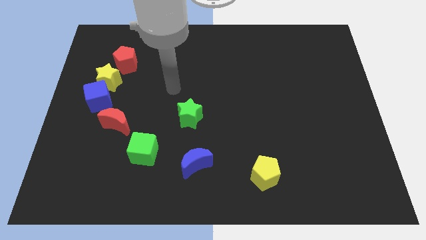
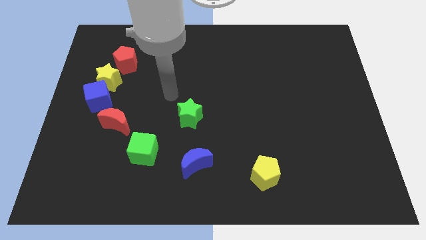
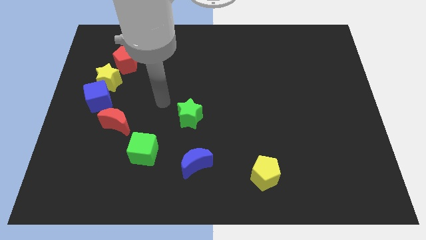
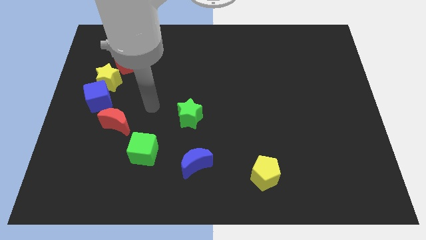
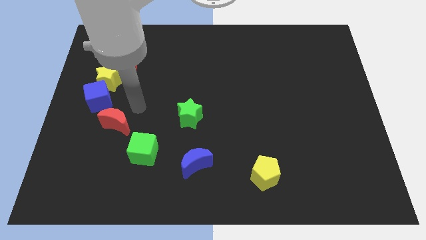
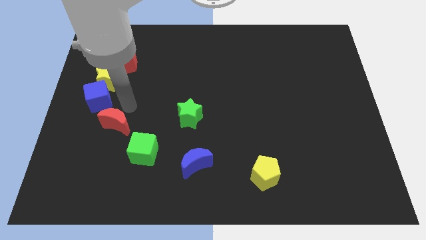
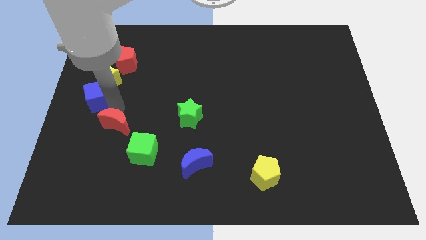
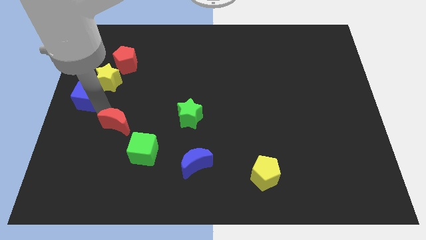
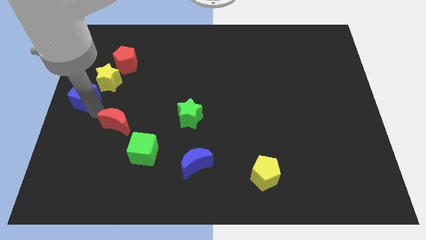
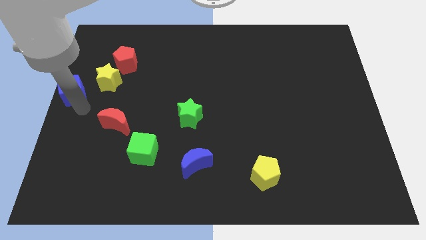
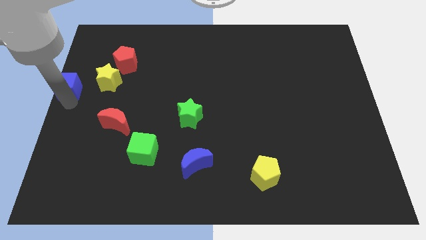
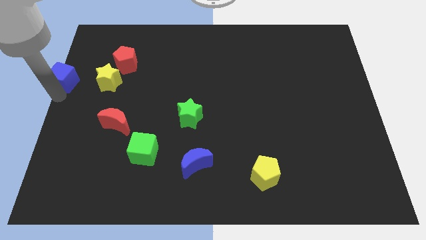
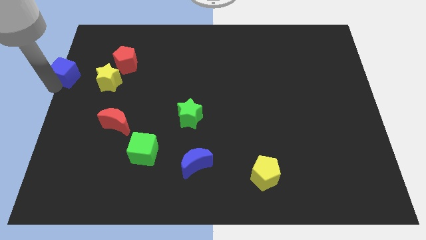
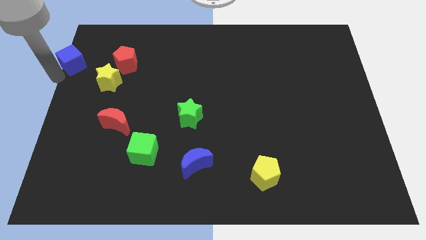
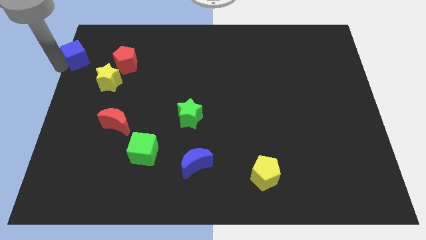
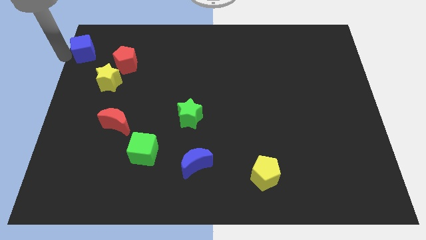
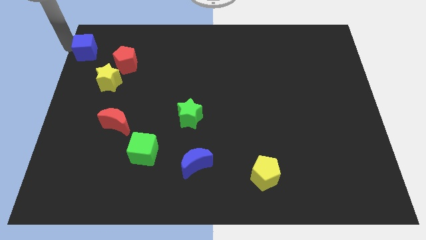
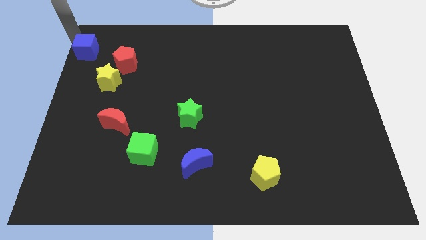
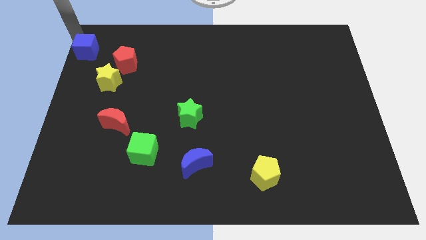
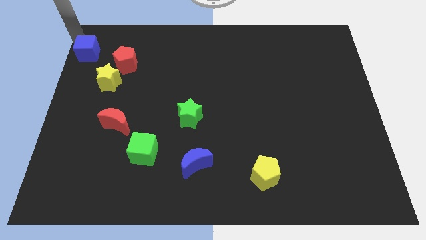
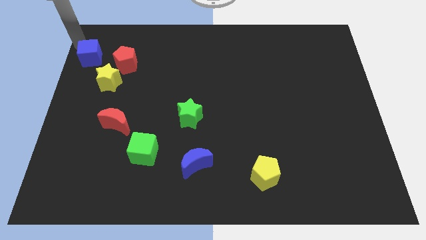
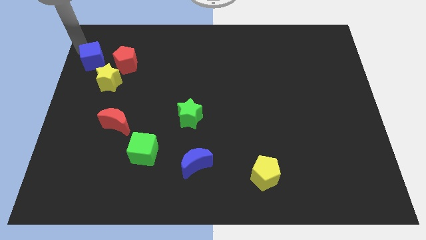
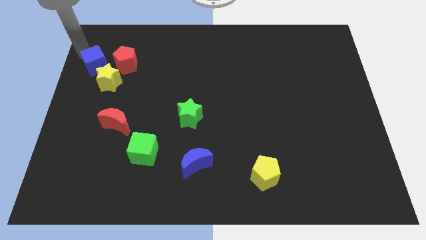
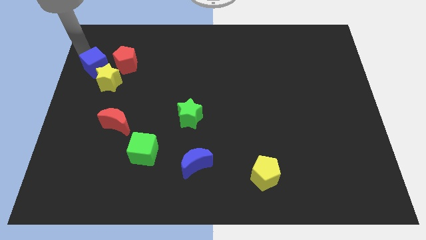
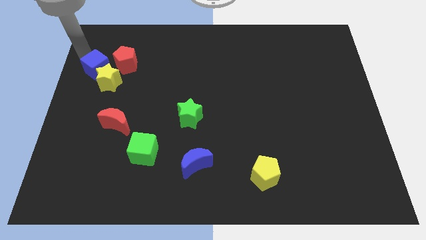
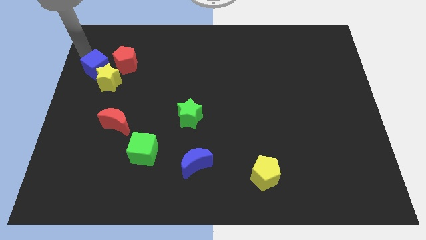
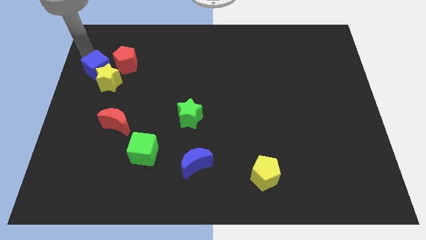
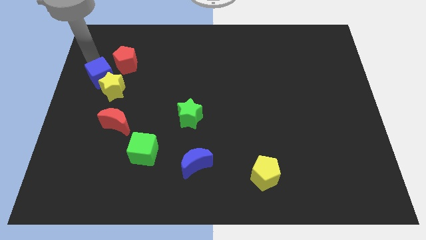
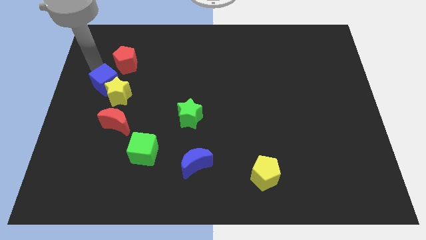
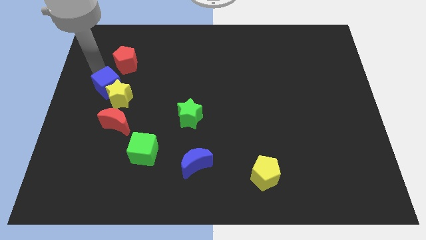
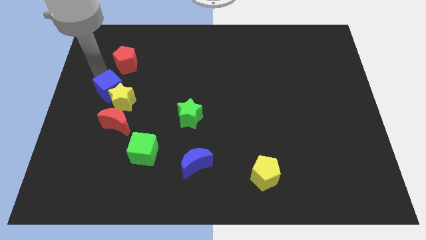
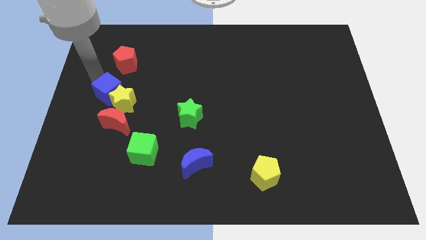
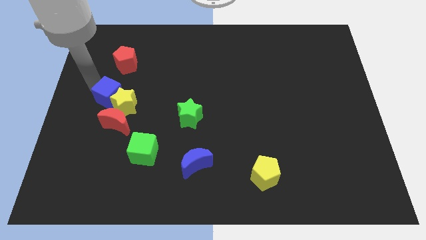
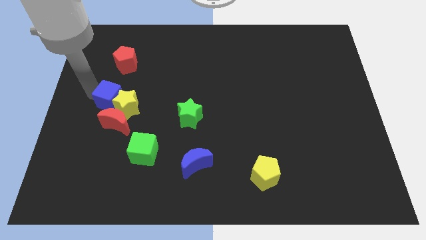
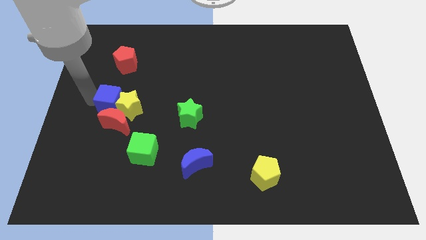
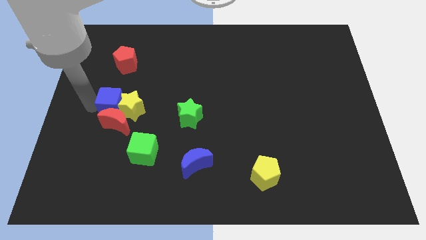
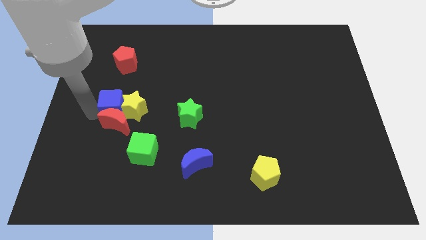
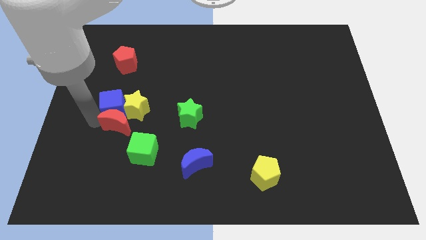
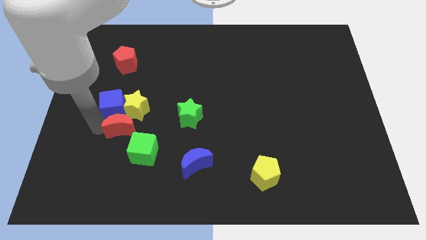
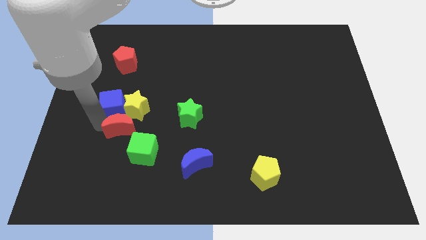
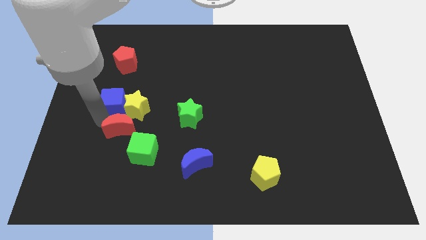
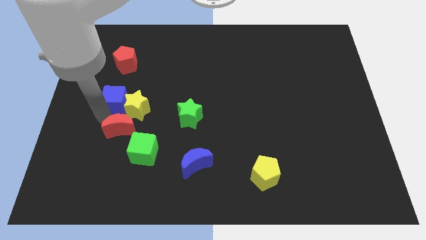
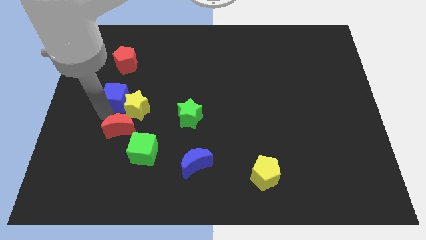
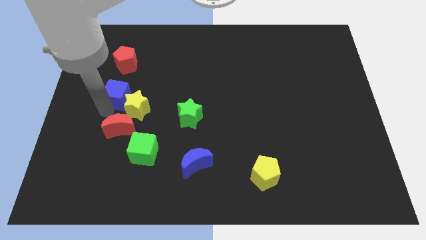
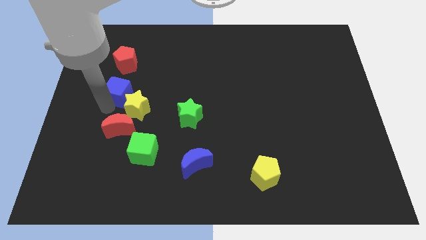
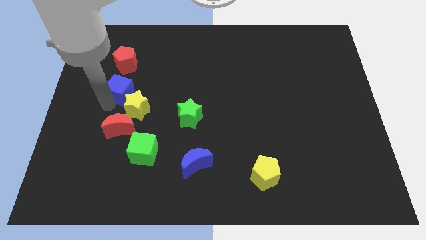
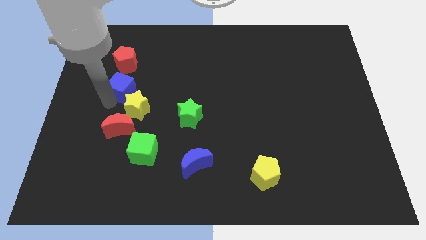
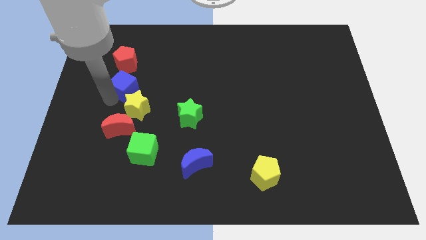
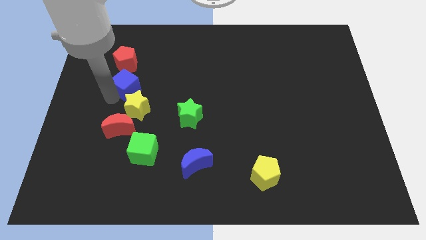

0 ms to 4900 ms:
slightly move the blue cube up and right diagonally

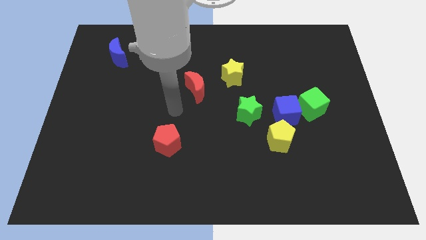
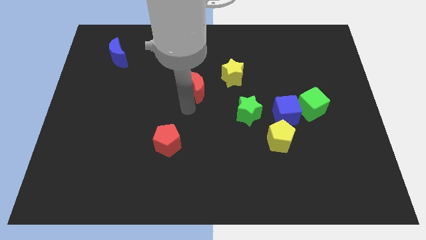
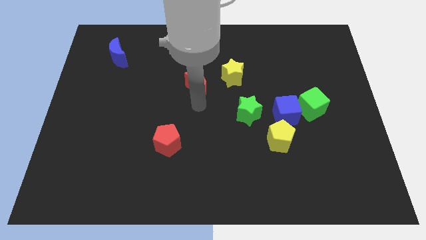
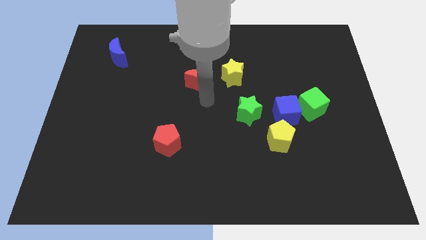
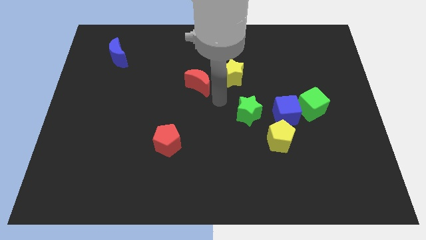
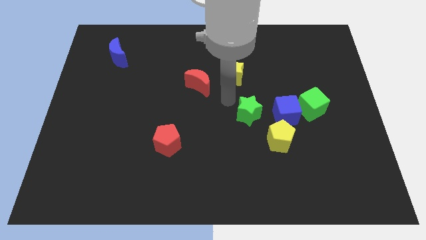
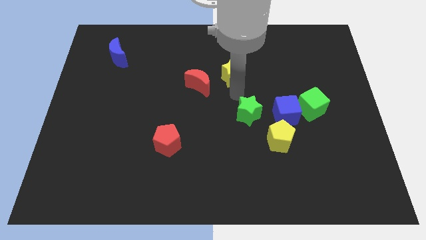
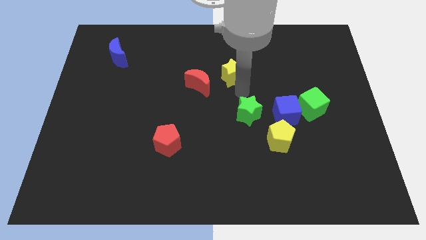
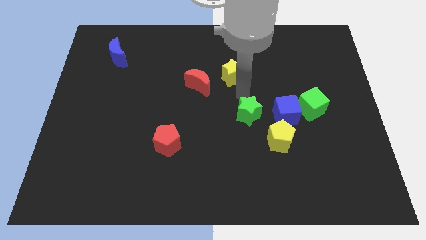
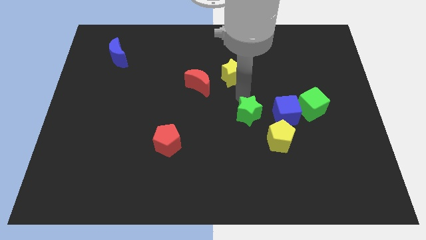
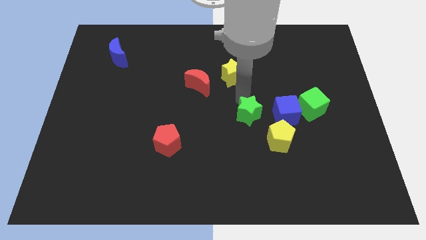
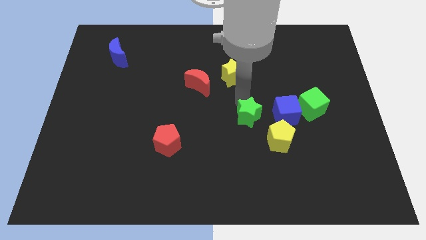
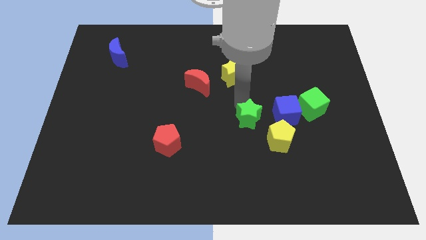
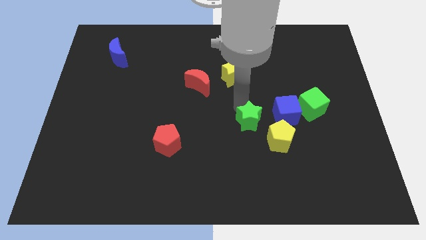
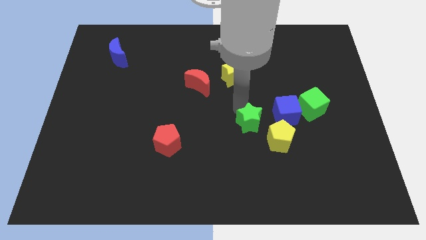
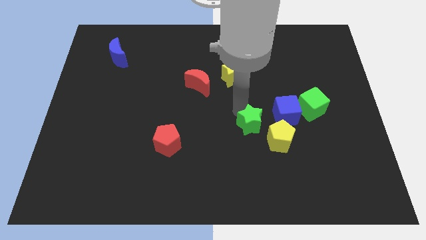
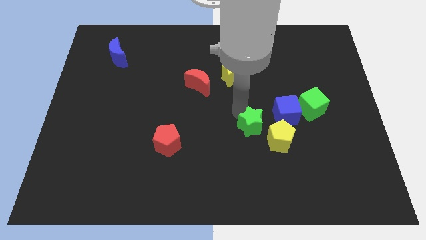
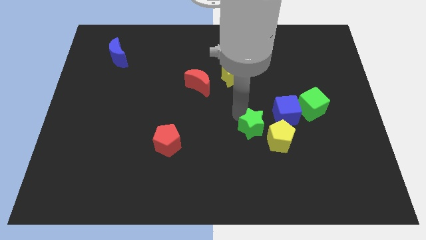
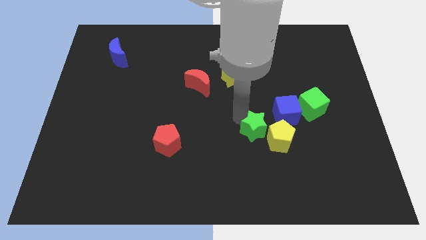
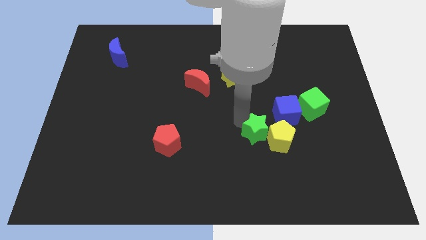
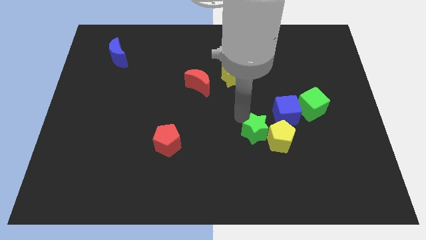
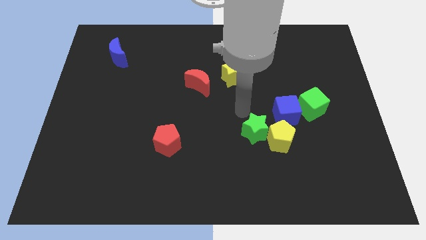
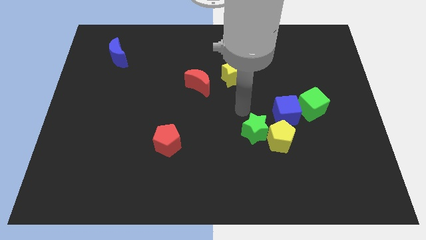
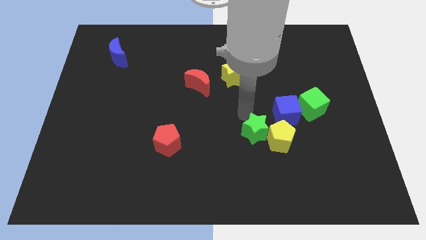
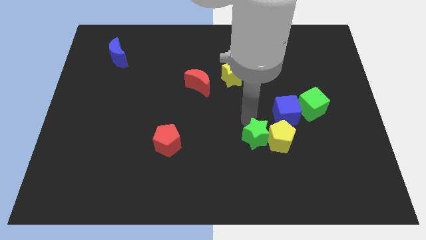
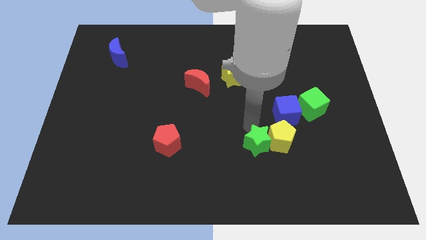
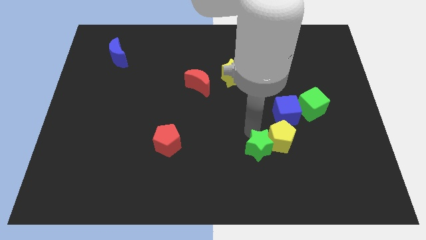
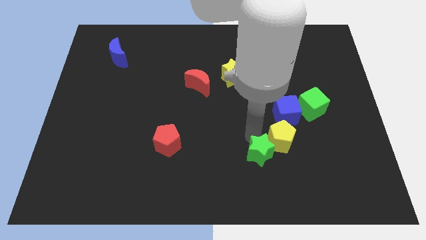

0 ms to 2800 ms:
push the green star downwards and to the right a little

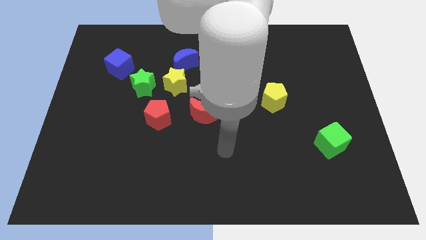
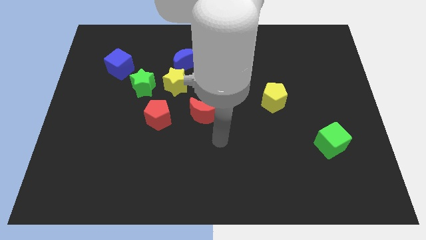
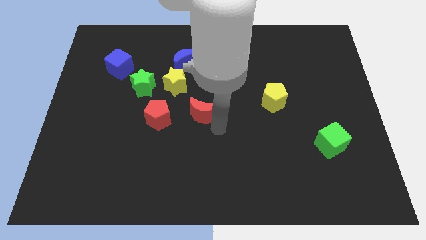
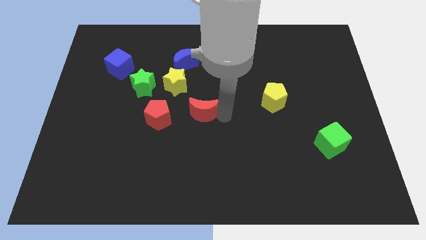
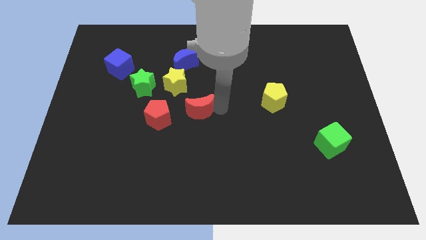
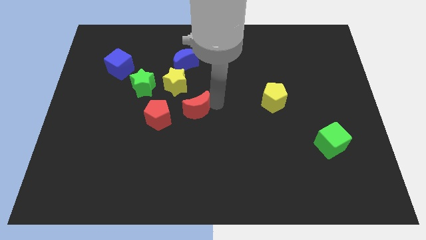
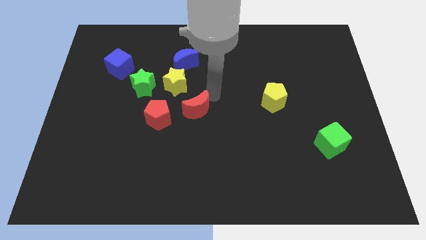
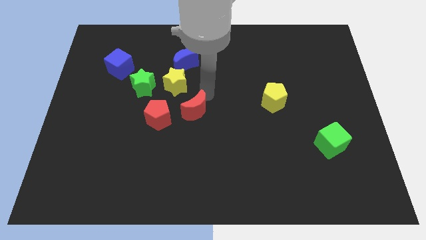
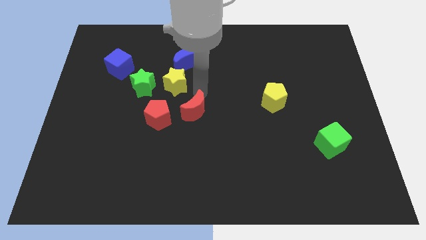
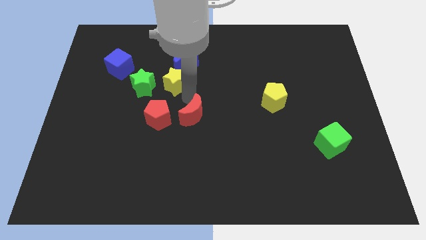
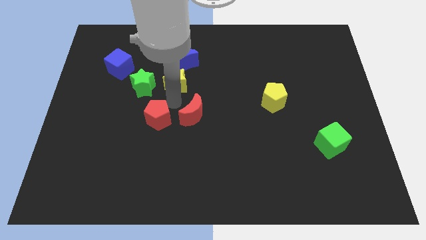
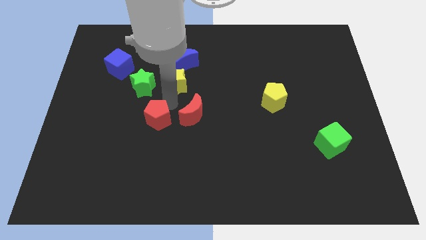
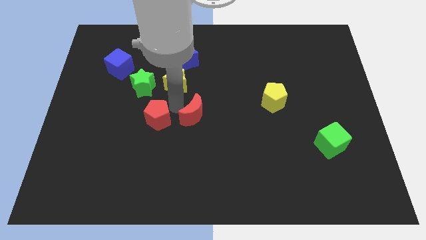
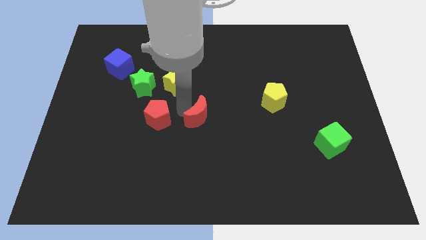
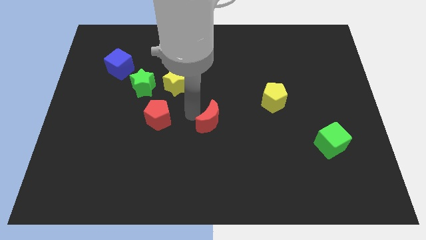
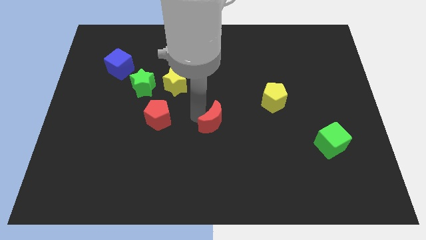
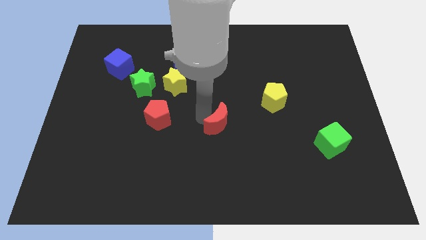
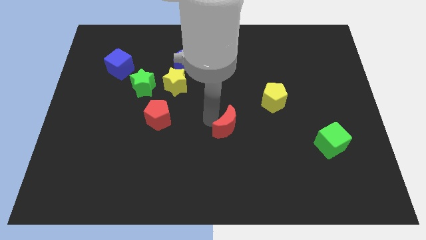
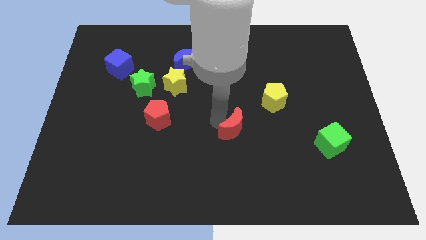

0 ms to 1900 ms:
move the red moon down and then right somewhat
